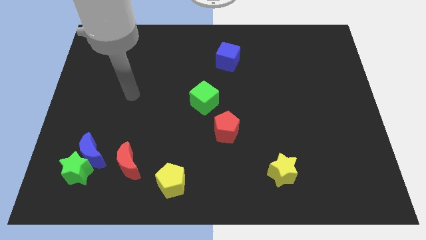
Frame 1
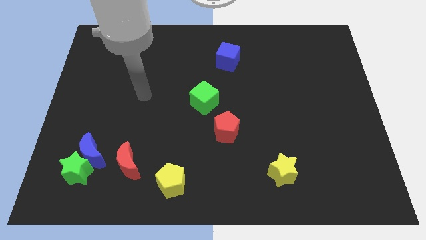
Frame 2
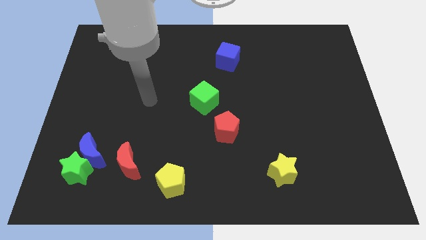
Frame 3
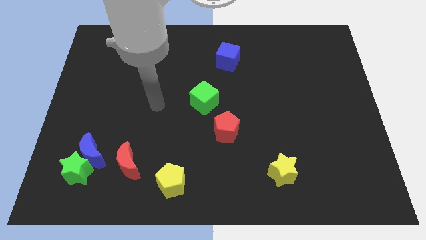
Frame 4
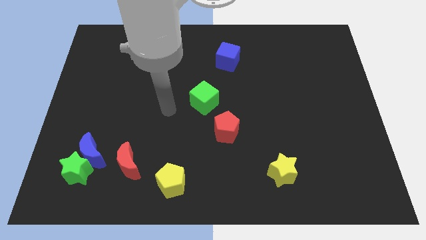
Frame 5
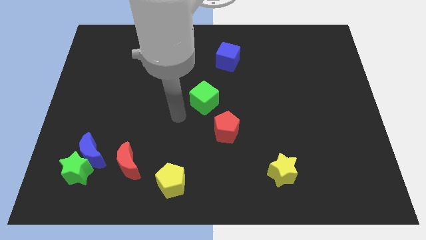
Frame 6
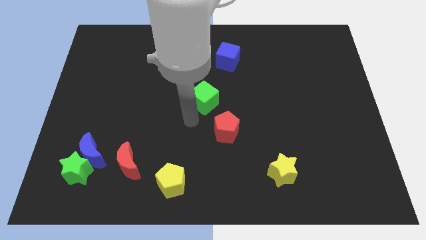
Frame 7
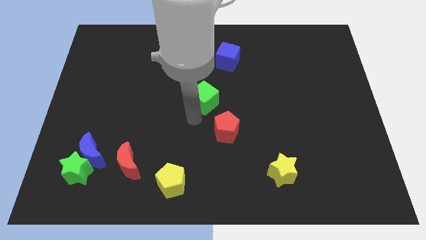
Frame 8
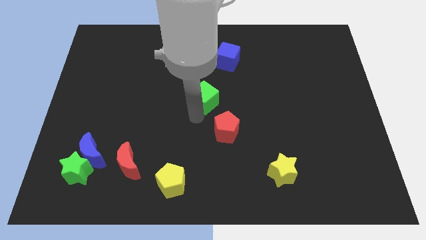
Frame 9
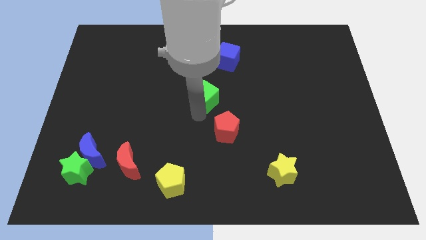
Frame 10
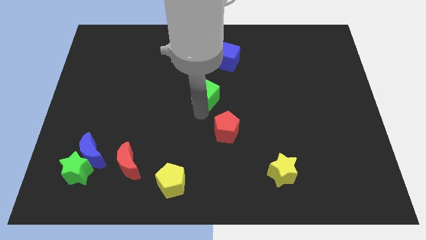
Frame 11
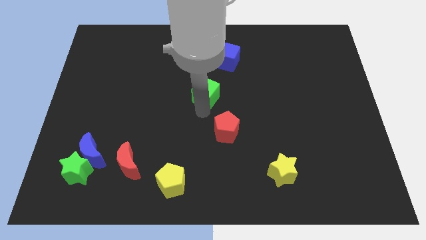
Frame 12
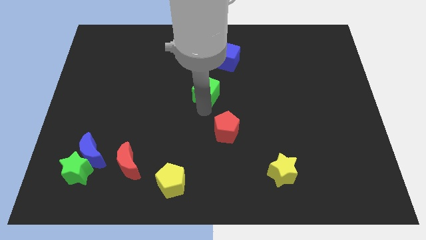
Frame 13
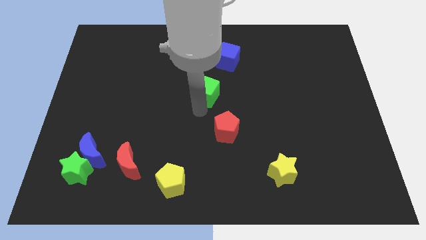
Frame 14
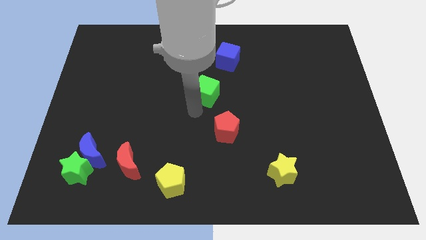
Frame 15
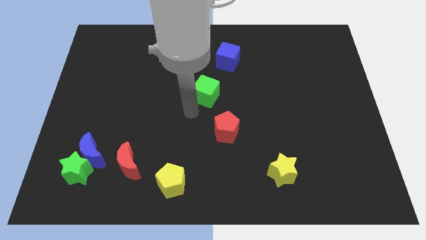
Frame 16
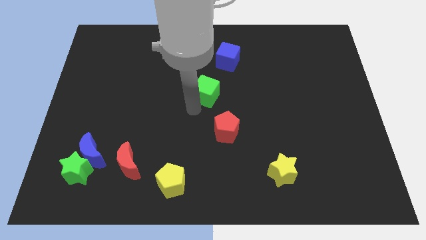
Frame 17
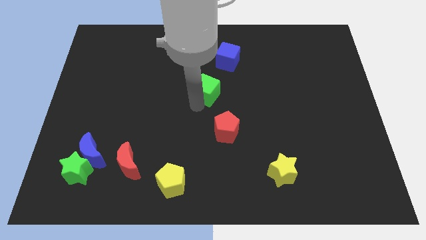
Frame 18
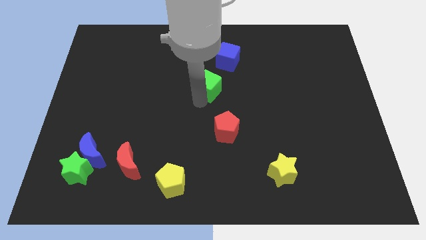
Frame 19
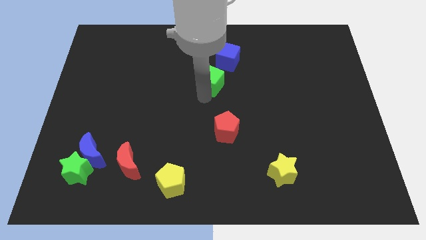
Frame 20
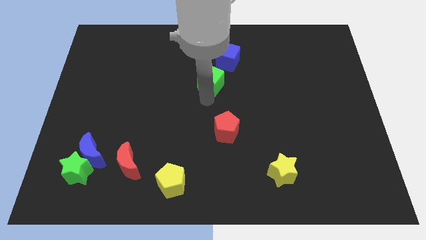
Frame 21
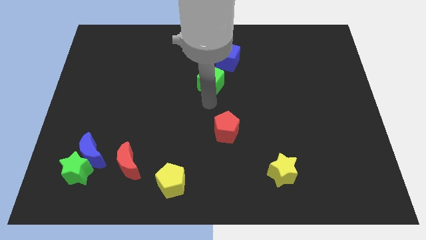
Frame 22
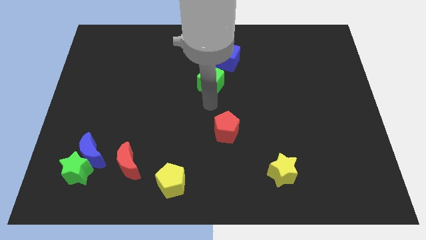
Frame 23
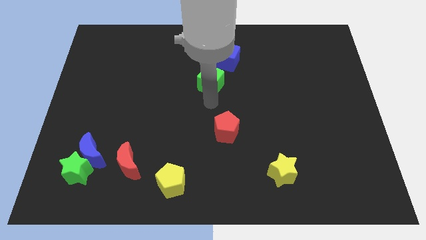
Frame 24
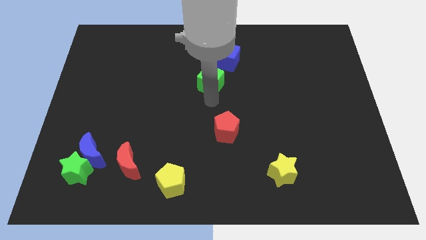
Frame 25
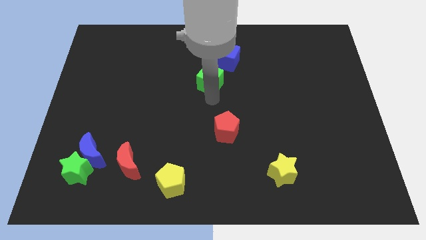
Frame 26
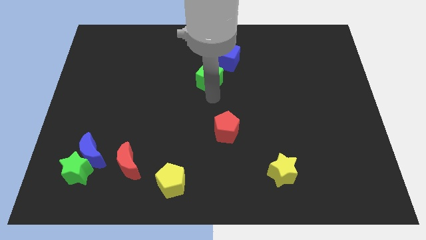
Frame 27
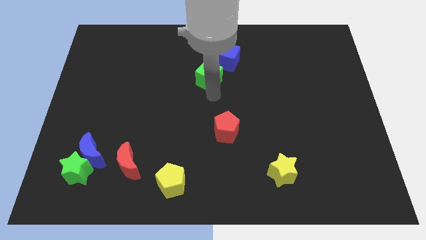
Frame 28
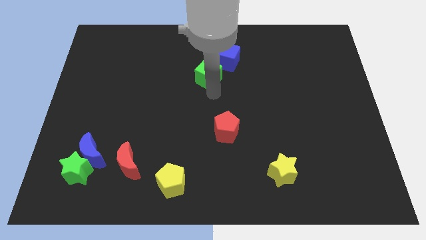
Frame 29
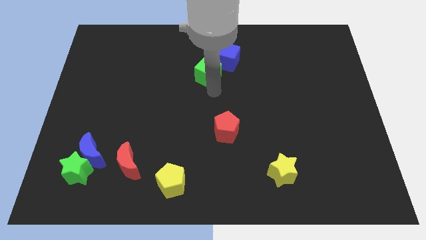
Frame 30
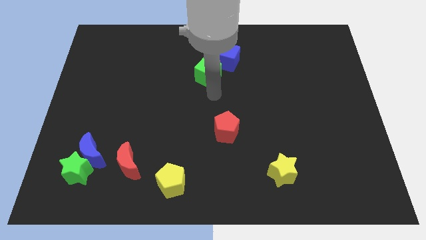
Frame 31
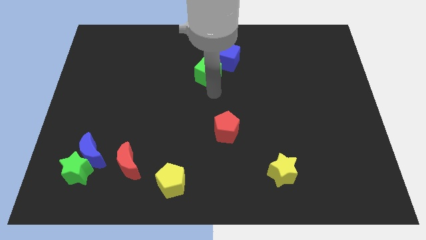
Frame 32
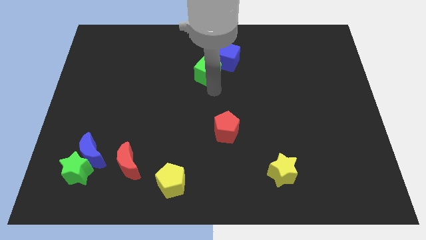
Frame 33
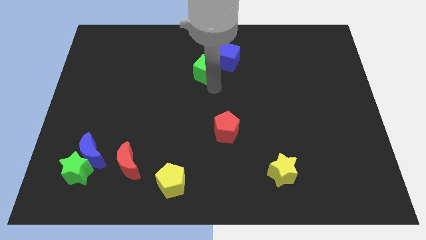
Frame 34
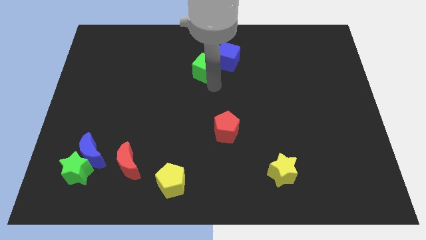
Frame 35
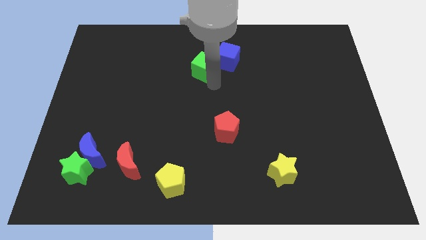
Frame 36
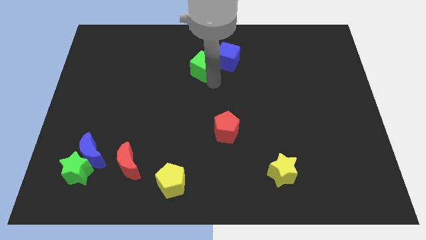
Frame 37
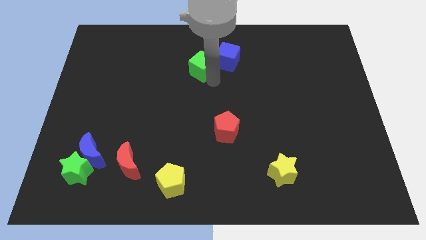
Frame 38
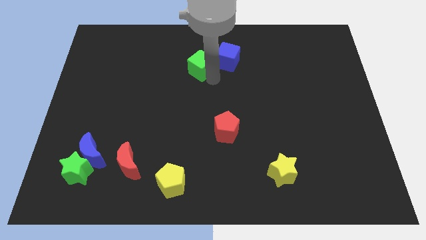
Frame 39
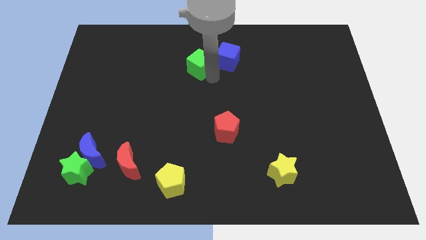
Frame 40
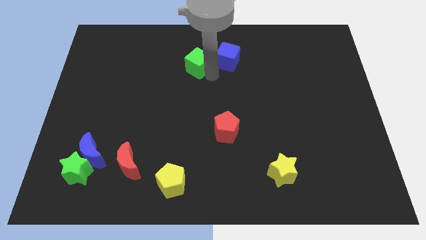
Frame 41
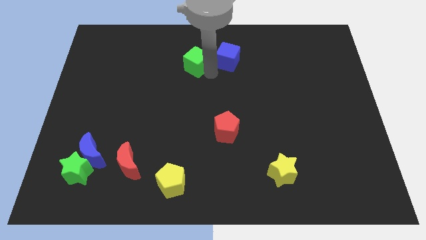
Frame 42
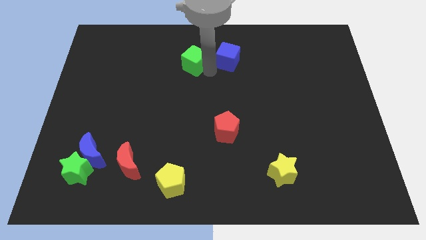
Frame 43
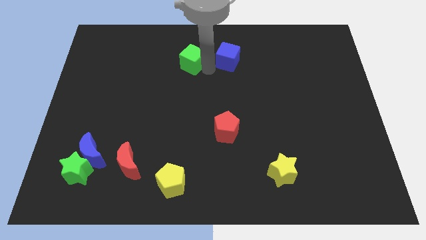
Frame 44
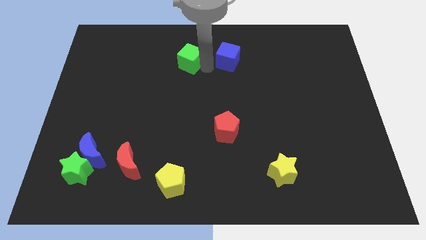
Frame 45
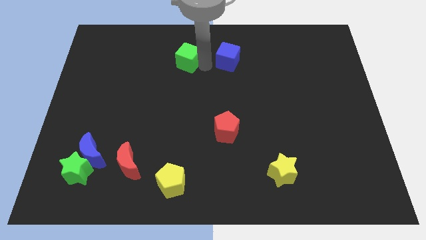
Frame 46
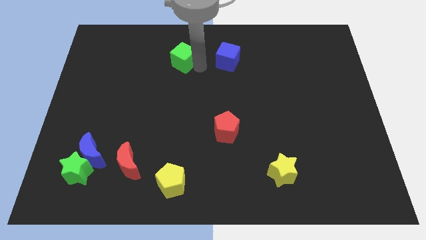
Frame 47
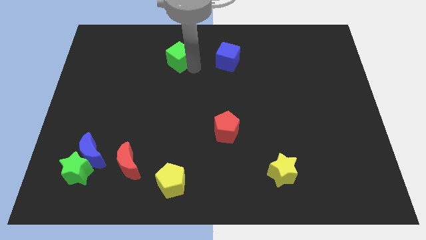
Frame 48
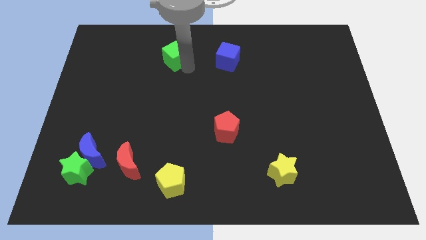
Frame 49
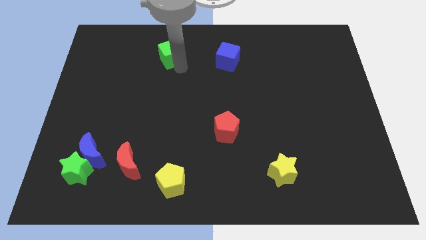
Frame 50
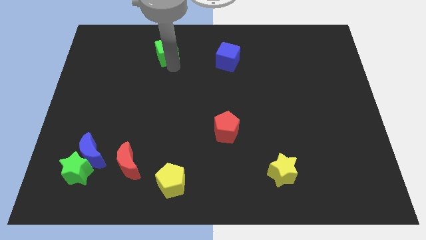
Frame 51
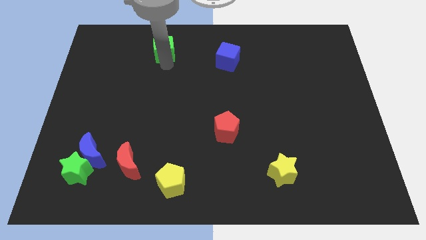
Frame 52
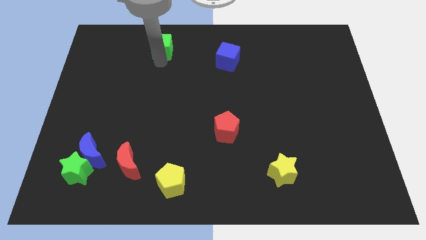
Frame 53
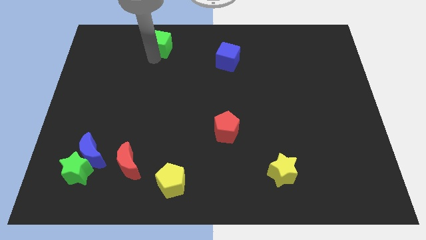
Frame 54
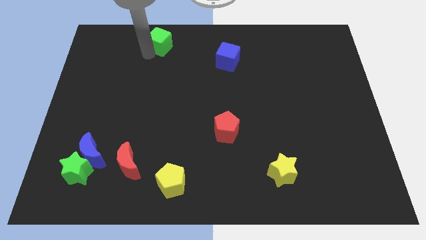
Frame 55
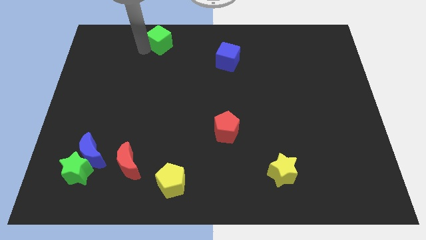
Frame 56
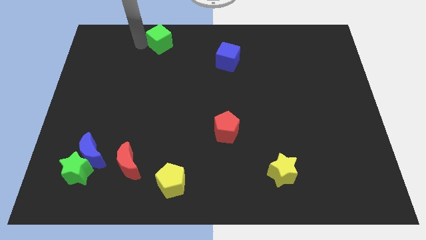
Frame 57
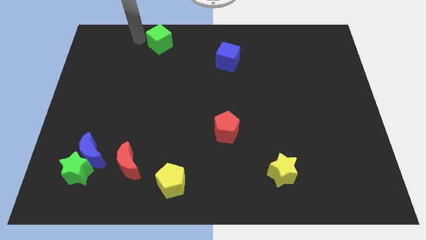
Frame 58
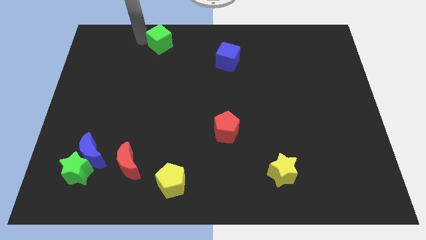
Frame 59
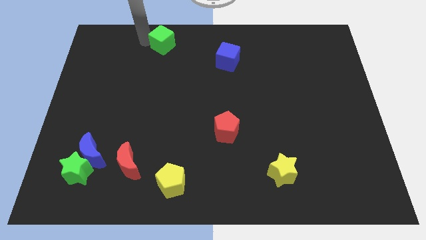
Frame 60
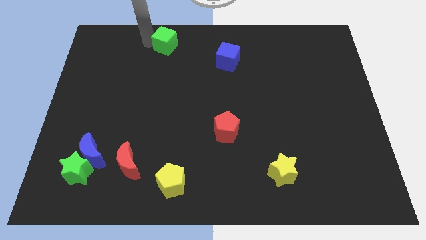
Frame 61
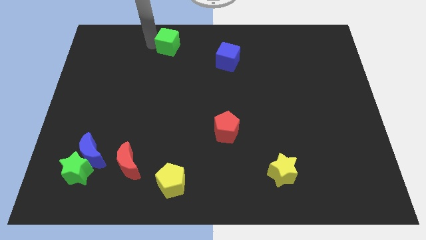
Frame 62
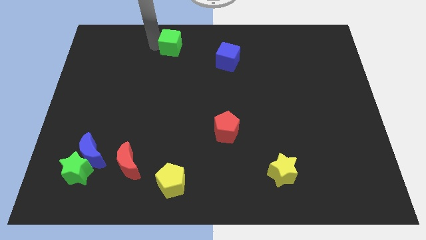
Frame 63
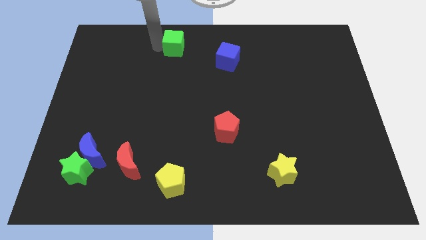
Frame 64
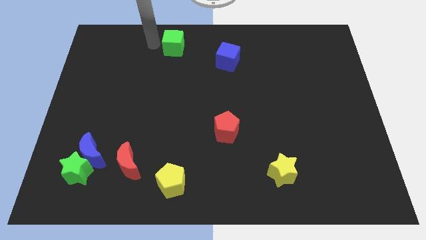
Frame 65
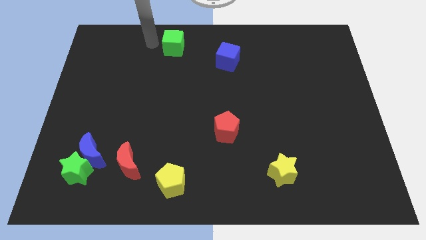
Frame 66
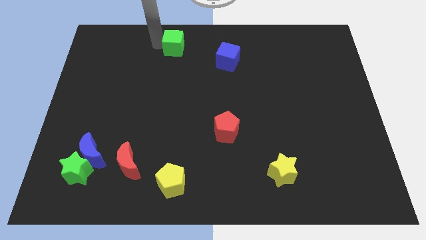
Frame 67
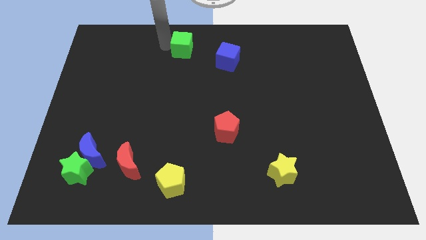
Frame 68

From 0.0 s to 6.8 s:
move the green cube to the top side
